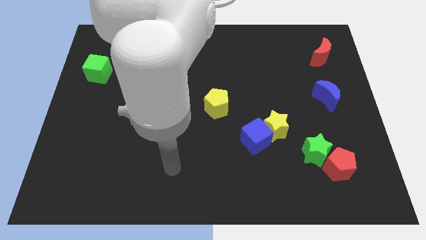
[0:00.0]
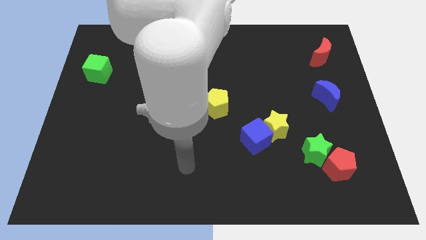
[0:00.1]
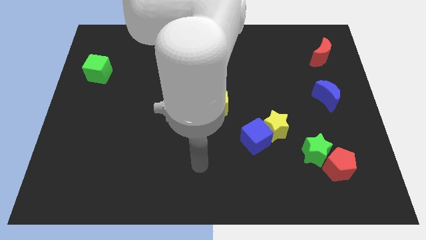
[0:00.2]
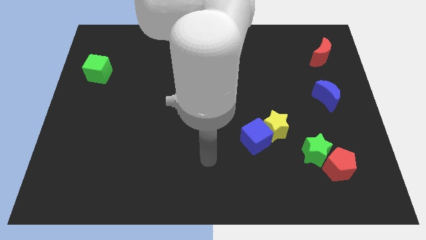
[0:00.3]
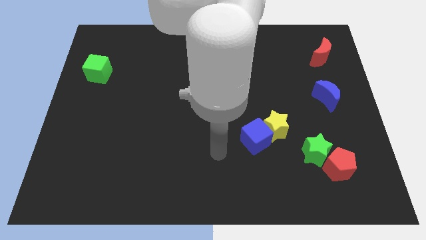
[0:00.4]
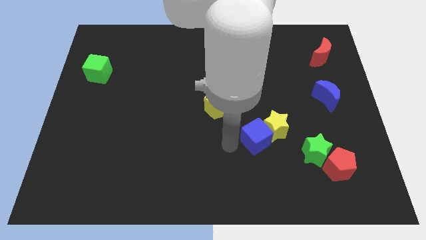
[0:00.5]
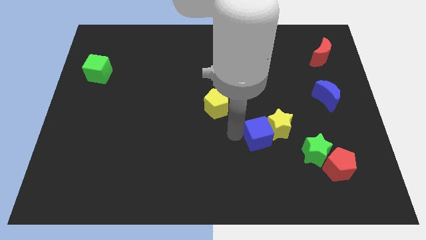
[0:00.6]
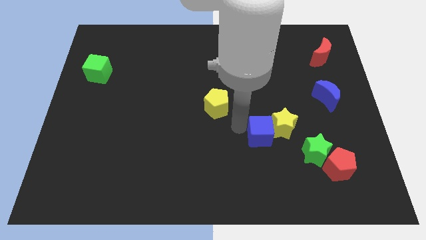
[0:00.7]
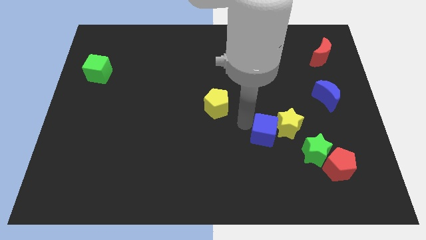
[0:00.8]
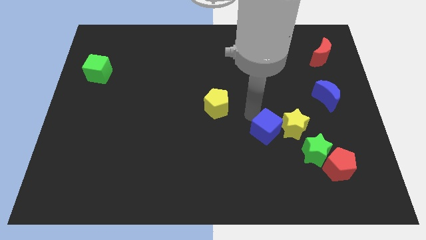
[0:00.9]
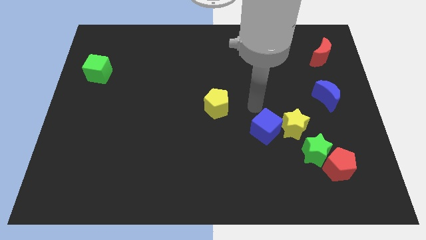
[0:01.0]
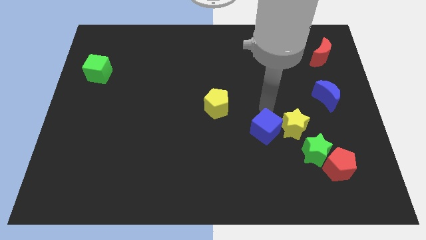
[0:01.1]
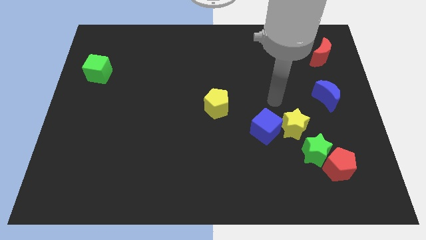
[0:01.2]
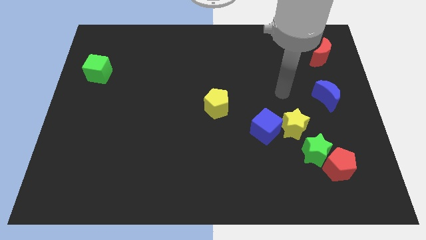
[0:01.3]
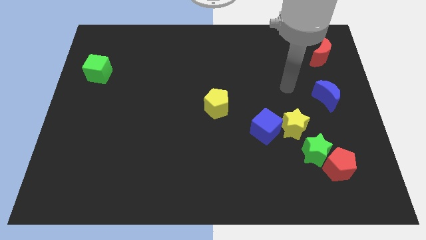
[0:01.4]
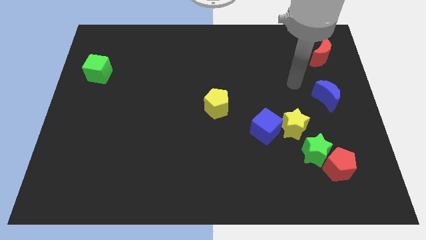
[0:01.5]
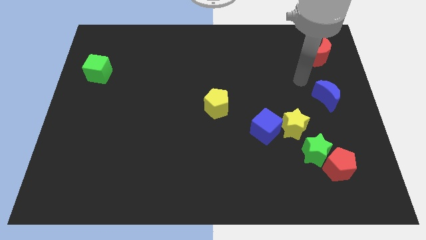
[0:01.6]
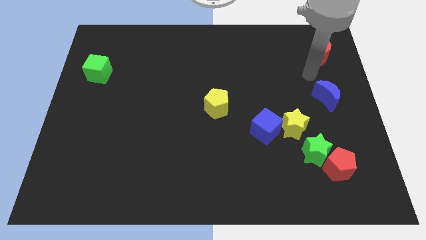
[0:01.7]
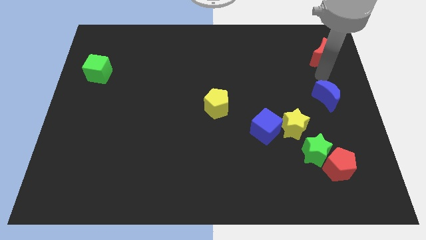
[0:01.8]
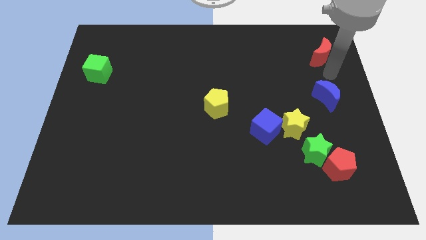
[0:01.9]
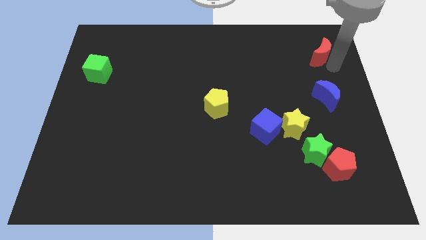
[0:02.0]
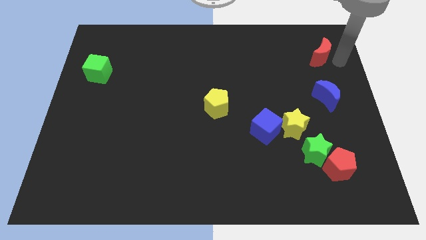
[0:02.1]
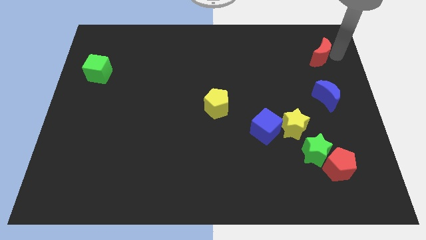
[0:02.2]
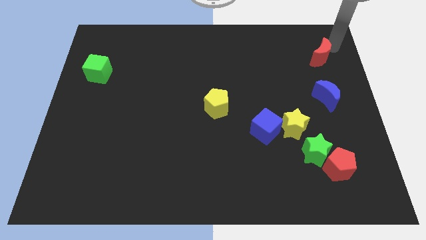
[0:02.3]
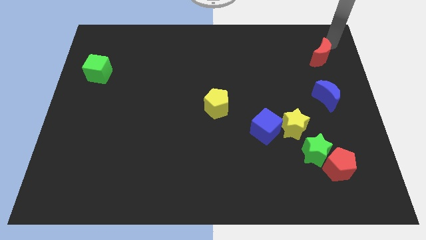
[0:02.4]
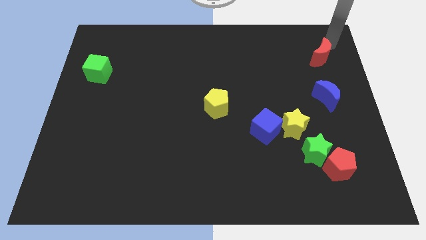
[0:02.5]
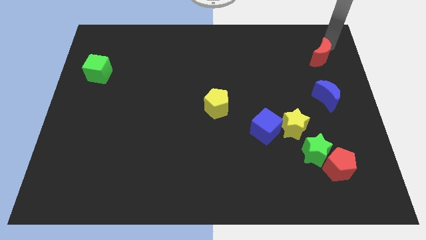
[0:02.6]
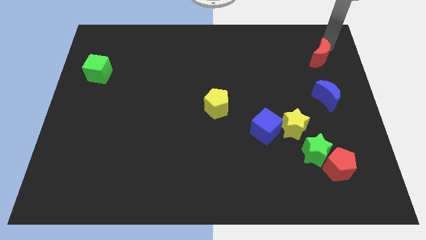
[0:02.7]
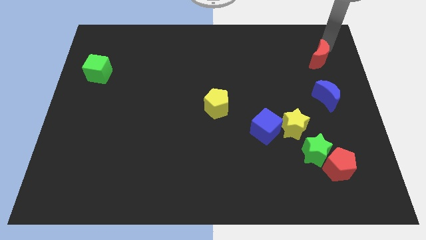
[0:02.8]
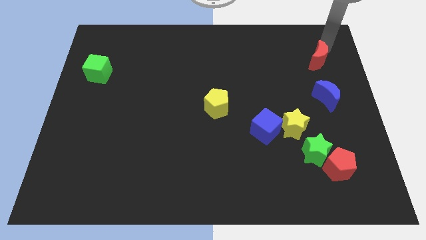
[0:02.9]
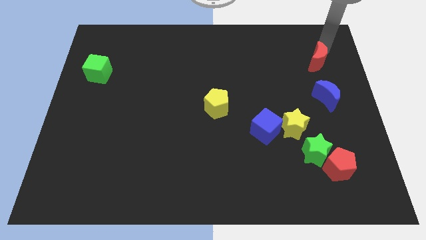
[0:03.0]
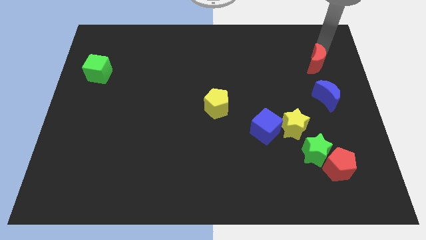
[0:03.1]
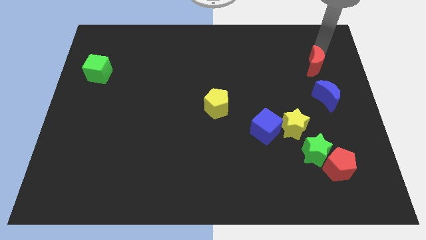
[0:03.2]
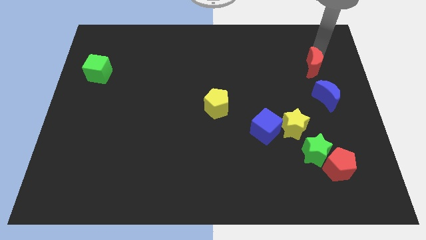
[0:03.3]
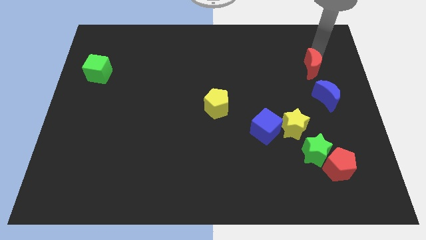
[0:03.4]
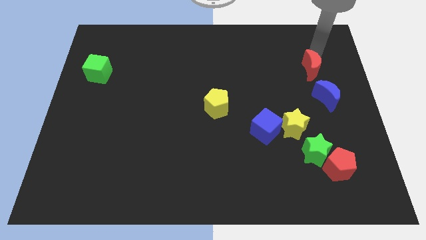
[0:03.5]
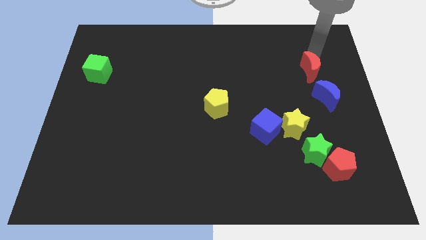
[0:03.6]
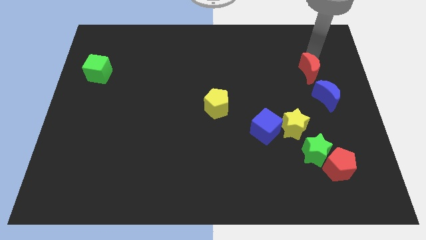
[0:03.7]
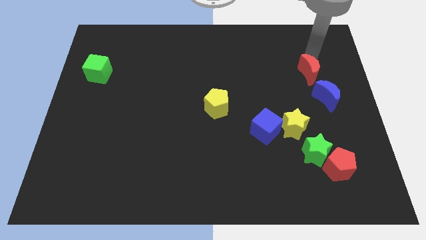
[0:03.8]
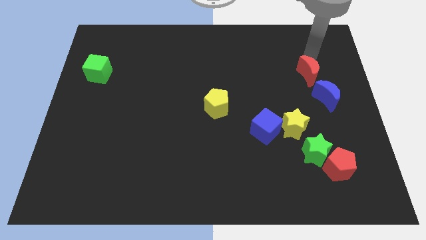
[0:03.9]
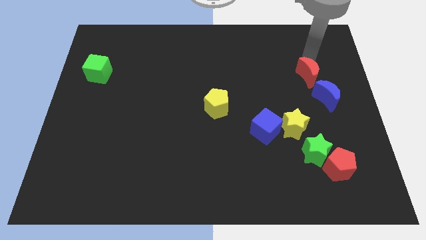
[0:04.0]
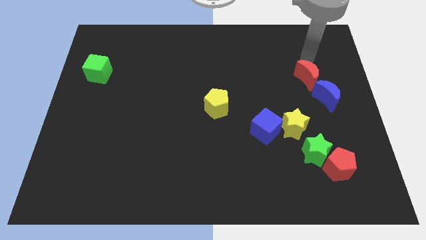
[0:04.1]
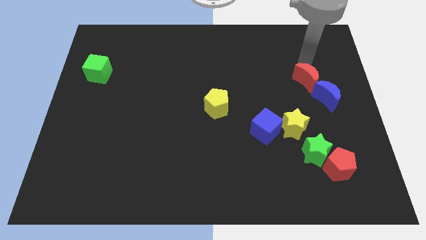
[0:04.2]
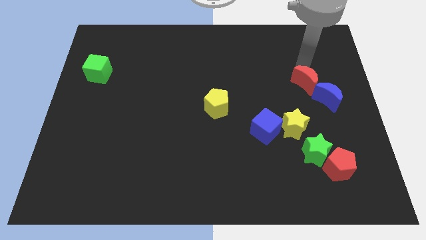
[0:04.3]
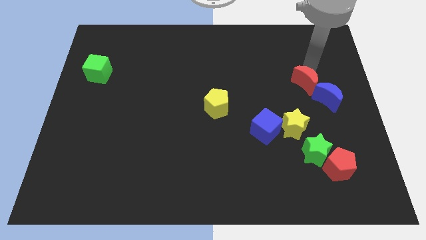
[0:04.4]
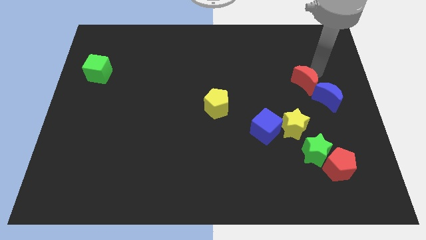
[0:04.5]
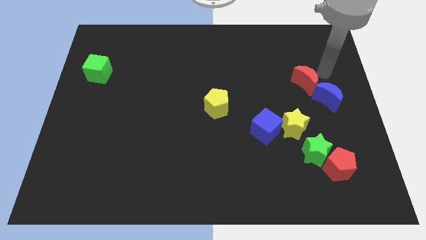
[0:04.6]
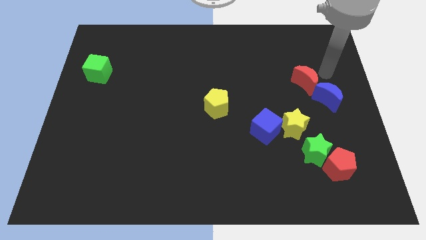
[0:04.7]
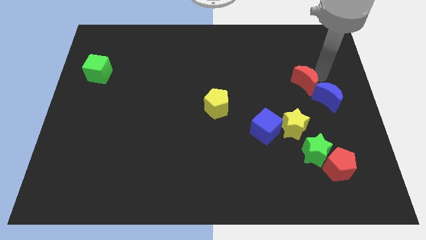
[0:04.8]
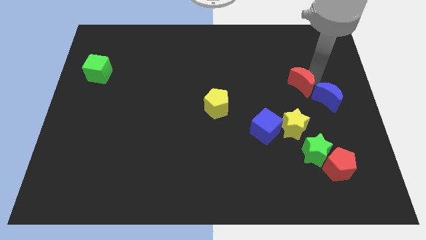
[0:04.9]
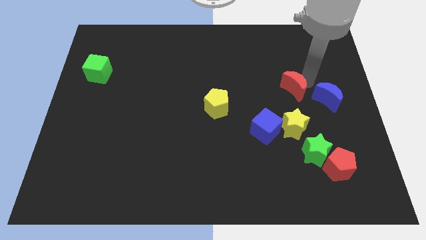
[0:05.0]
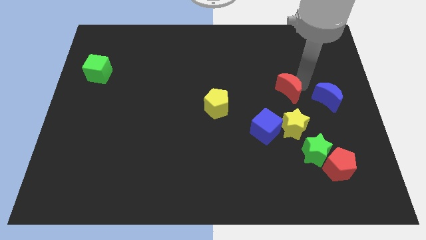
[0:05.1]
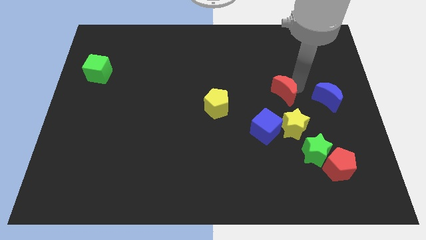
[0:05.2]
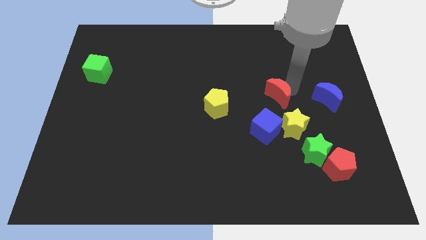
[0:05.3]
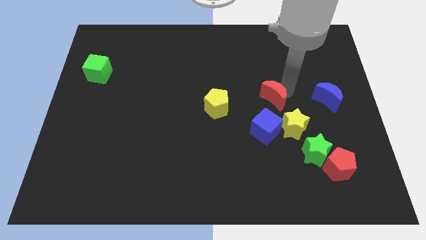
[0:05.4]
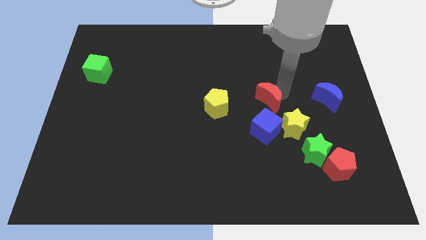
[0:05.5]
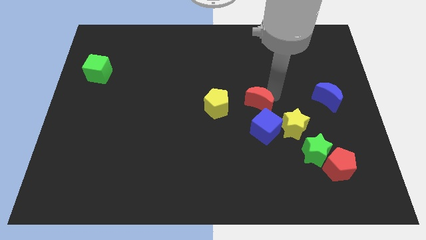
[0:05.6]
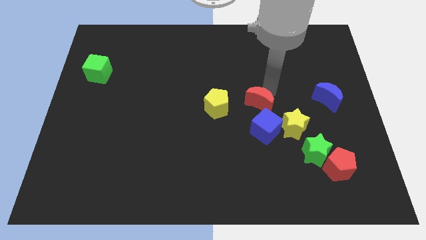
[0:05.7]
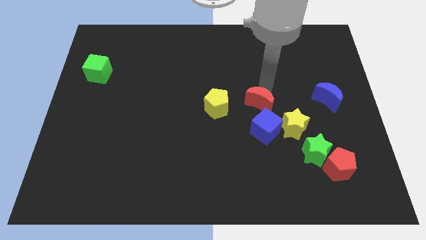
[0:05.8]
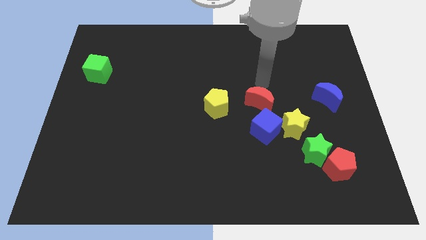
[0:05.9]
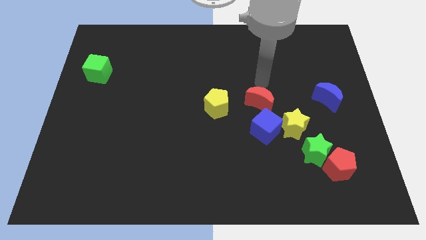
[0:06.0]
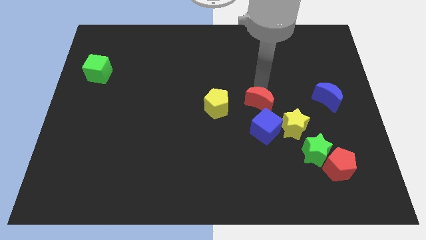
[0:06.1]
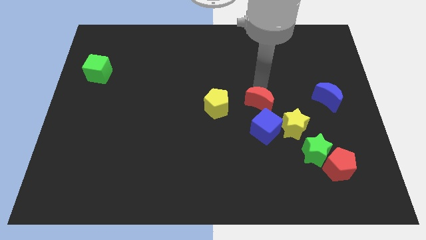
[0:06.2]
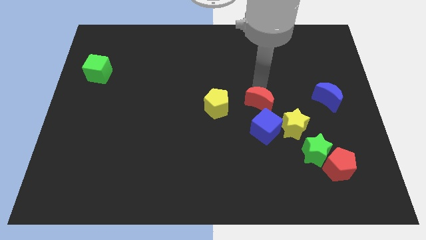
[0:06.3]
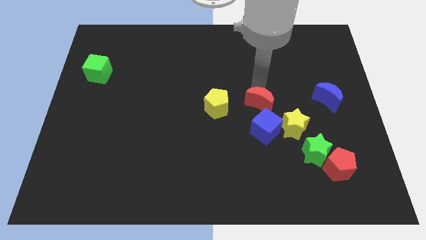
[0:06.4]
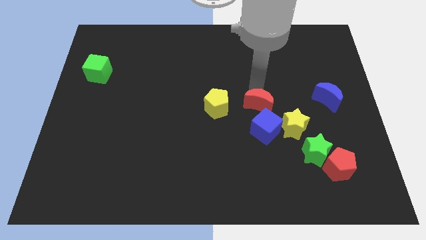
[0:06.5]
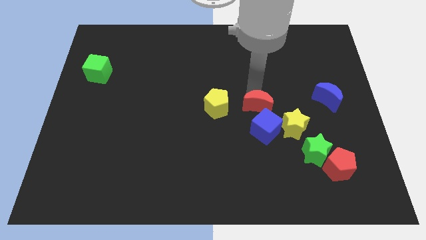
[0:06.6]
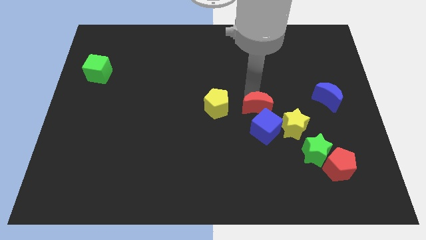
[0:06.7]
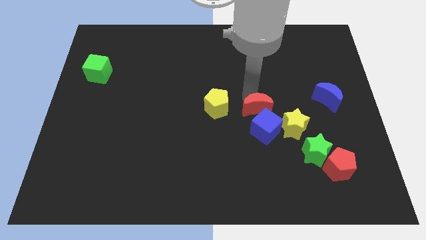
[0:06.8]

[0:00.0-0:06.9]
slide the red moon next to the blue cube
